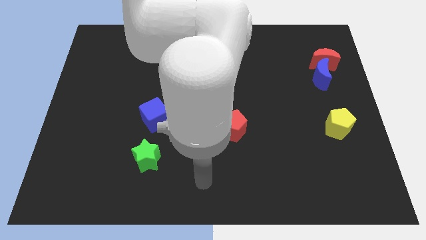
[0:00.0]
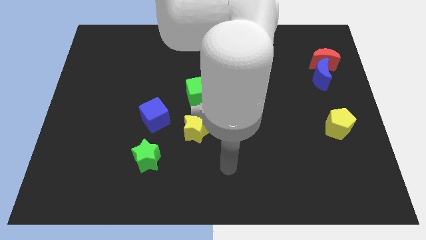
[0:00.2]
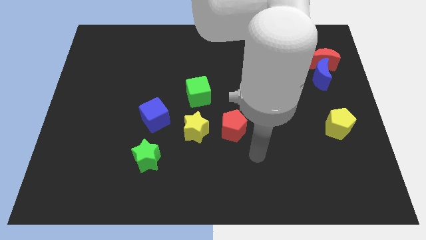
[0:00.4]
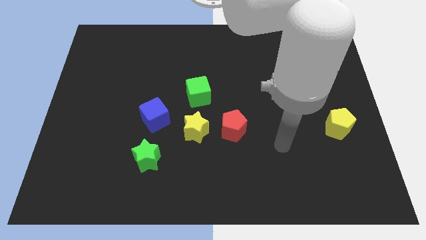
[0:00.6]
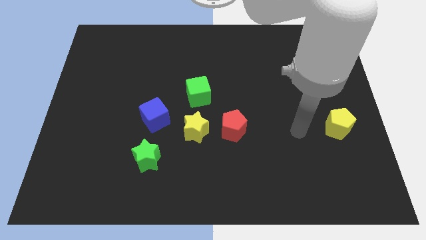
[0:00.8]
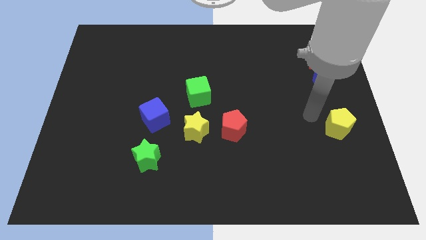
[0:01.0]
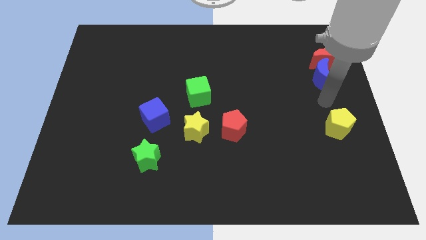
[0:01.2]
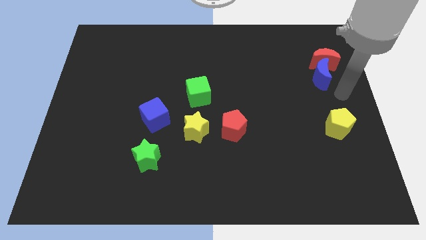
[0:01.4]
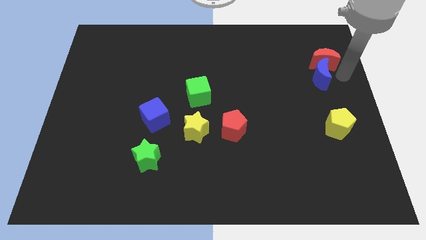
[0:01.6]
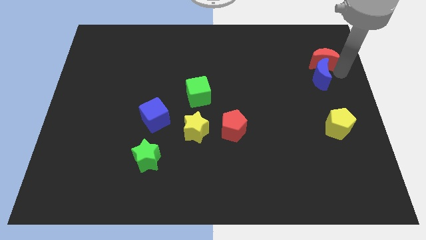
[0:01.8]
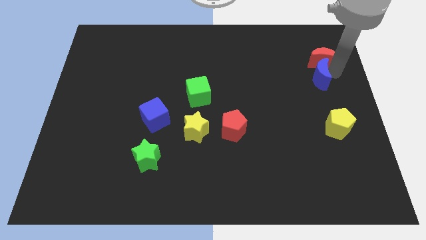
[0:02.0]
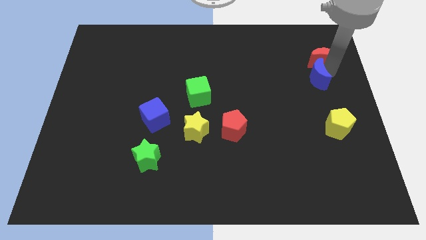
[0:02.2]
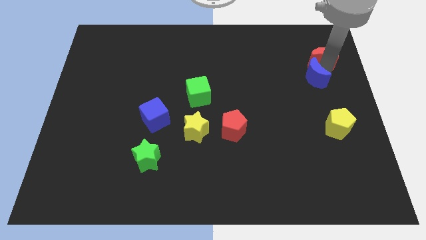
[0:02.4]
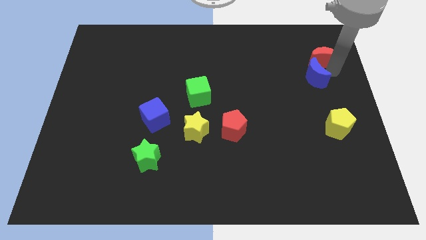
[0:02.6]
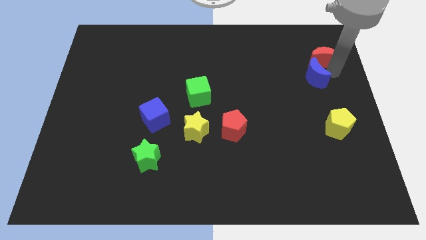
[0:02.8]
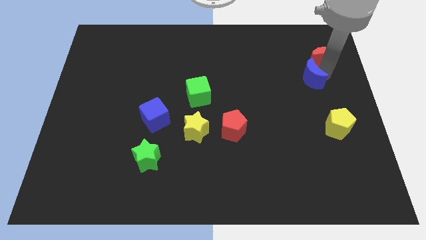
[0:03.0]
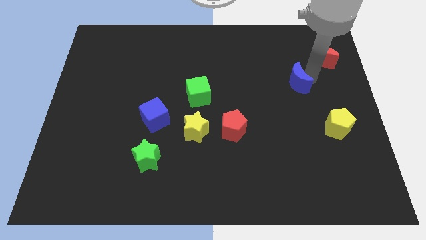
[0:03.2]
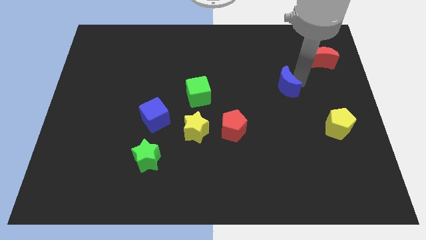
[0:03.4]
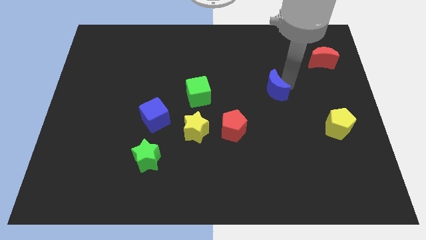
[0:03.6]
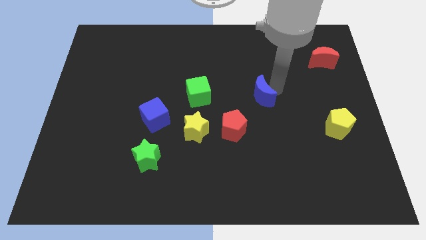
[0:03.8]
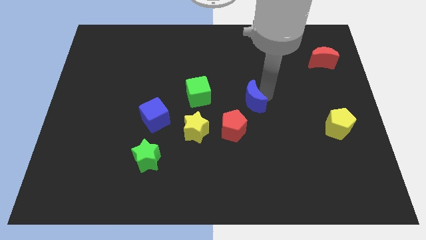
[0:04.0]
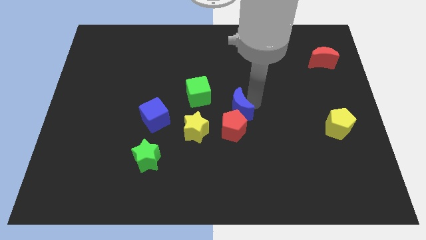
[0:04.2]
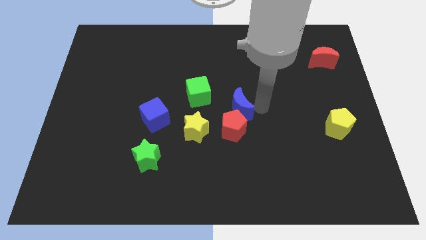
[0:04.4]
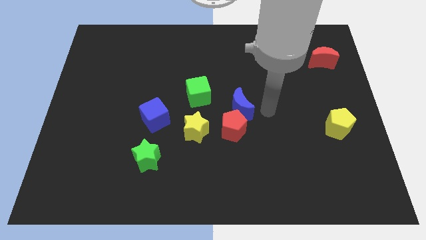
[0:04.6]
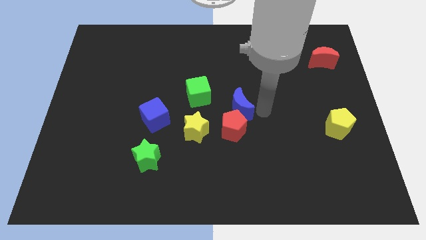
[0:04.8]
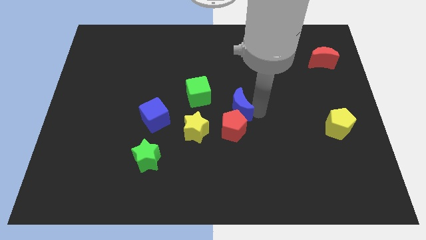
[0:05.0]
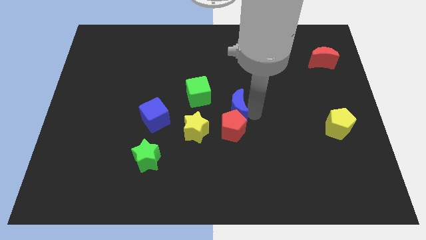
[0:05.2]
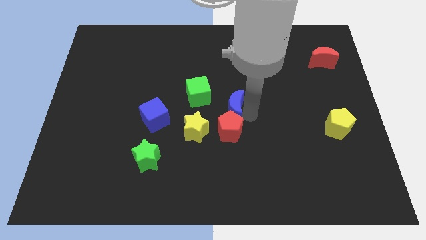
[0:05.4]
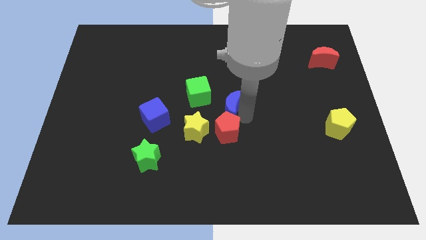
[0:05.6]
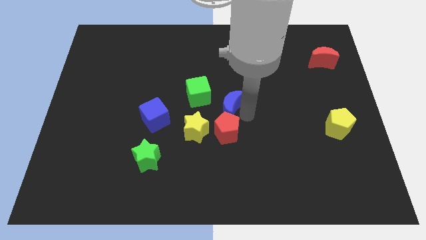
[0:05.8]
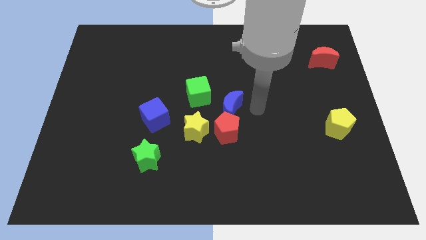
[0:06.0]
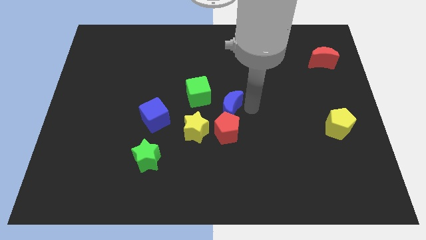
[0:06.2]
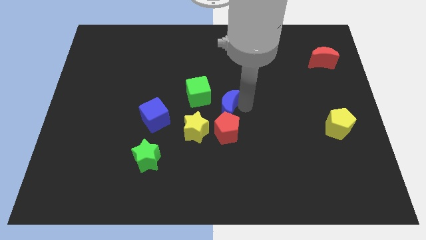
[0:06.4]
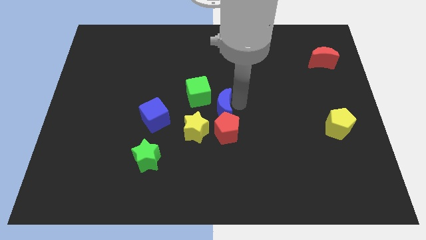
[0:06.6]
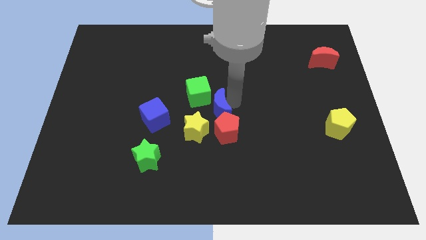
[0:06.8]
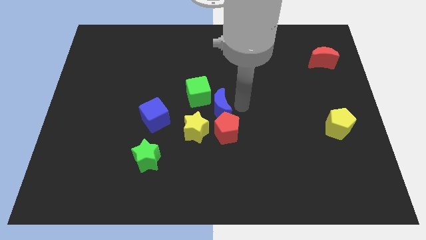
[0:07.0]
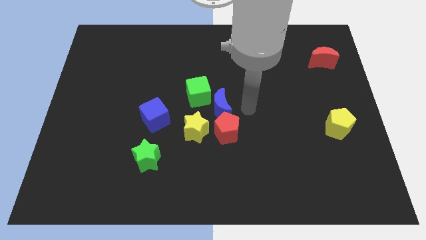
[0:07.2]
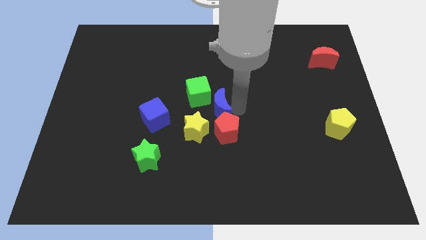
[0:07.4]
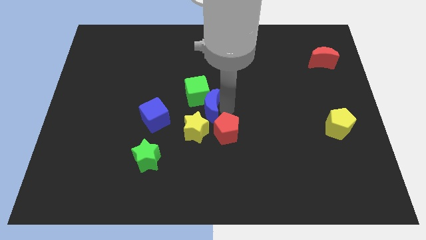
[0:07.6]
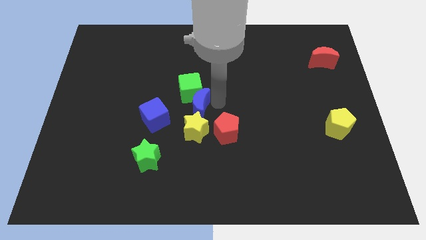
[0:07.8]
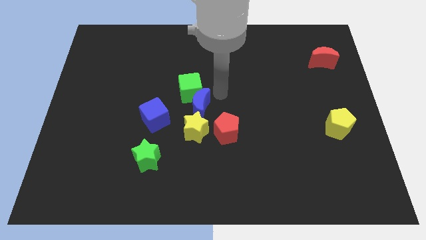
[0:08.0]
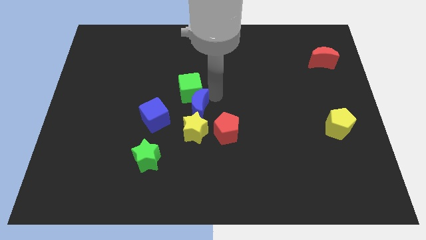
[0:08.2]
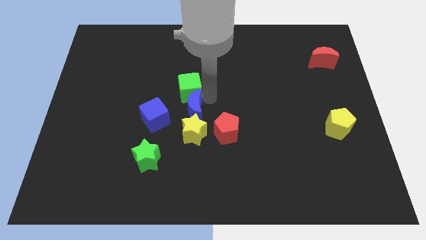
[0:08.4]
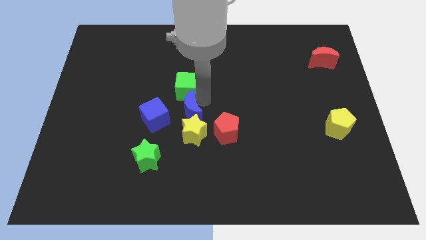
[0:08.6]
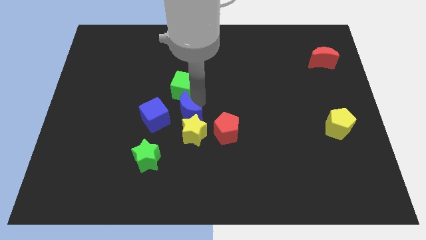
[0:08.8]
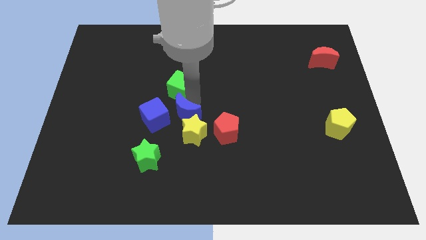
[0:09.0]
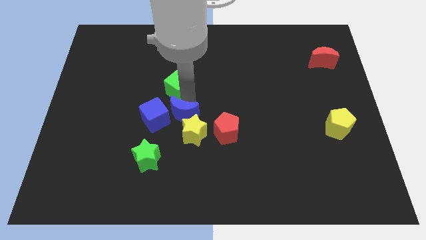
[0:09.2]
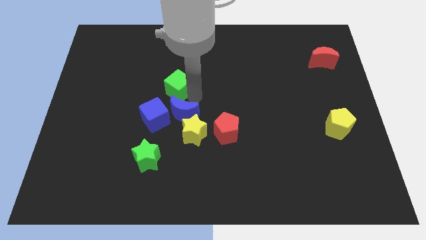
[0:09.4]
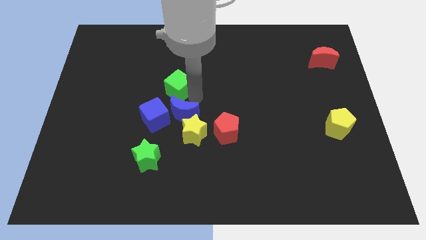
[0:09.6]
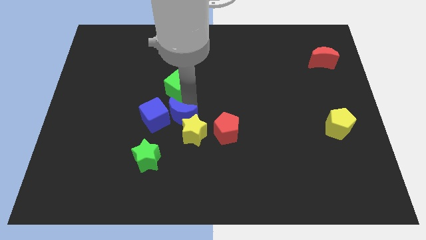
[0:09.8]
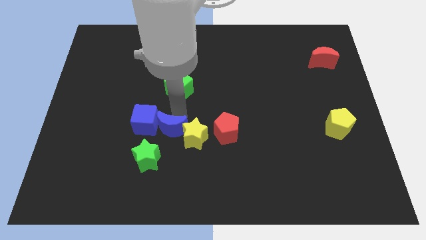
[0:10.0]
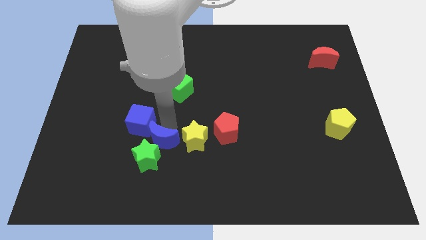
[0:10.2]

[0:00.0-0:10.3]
push the blue moon diagonally down and to the left of the yellow star

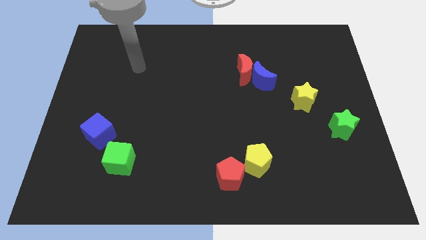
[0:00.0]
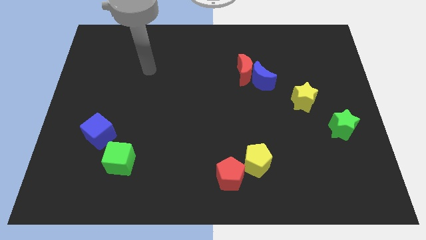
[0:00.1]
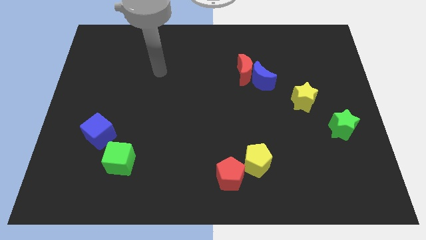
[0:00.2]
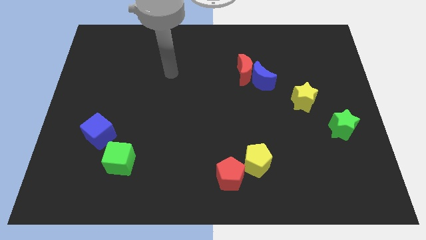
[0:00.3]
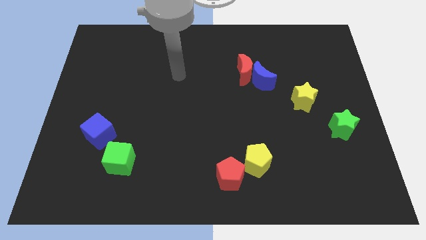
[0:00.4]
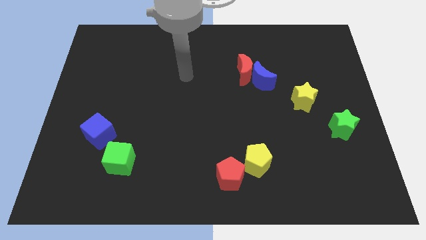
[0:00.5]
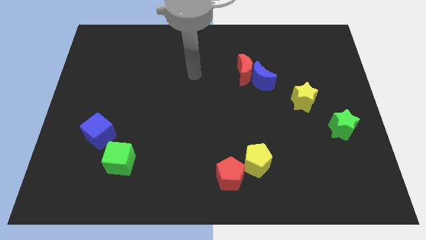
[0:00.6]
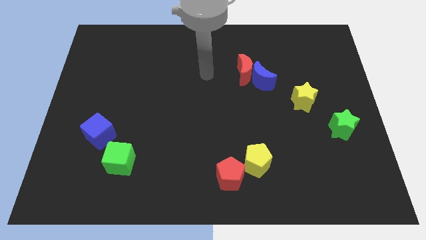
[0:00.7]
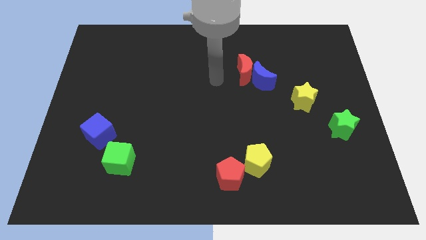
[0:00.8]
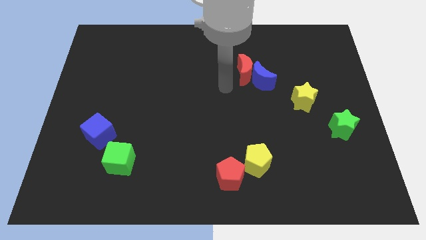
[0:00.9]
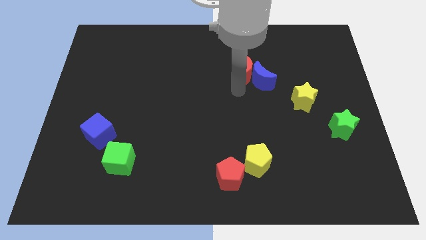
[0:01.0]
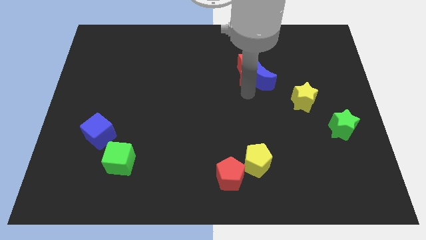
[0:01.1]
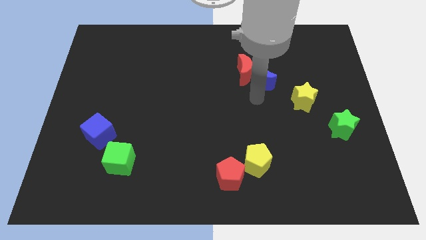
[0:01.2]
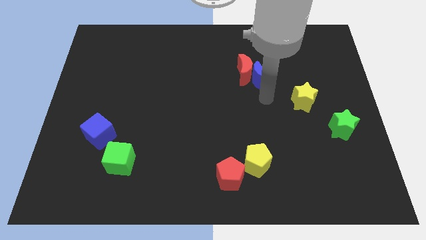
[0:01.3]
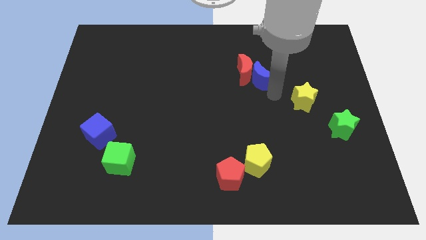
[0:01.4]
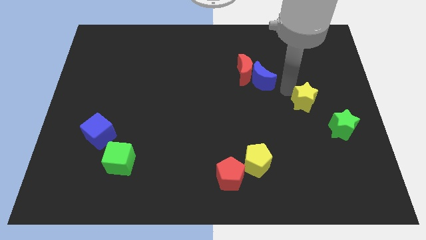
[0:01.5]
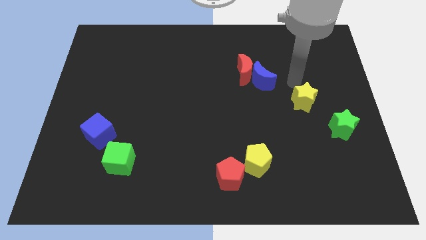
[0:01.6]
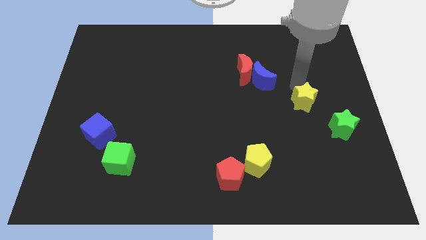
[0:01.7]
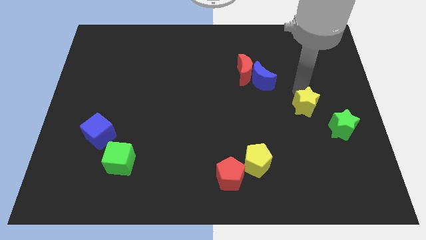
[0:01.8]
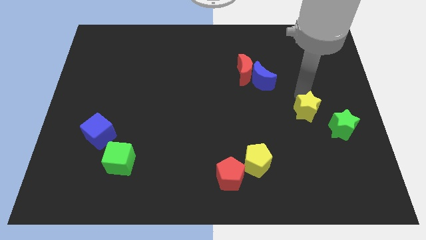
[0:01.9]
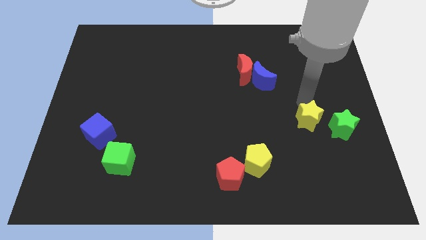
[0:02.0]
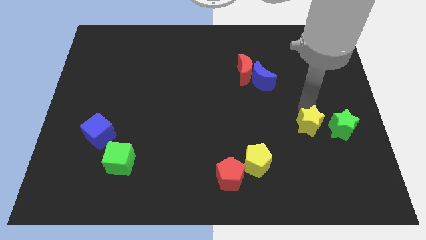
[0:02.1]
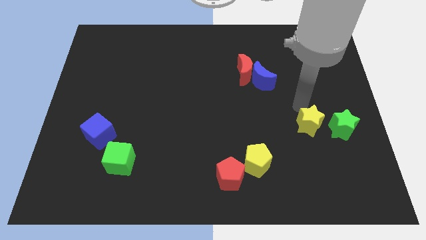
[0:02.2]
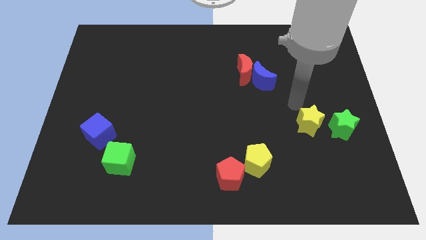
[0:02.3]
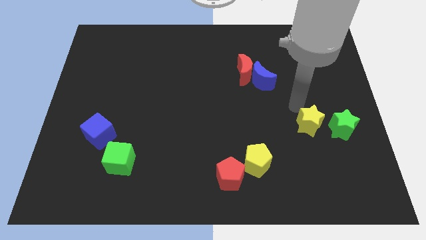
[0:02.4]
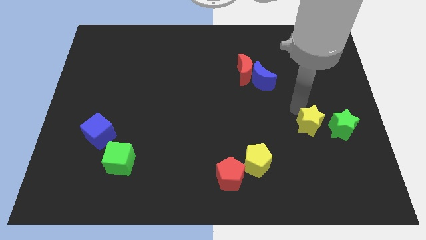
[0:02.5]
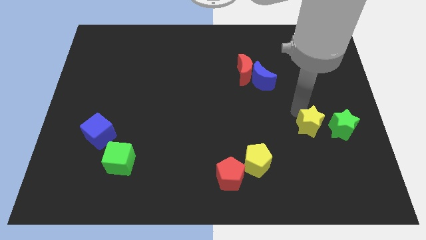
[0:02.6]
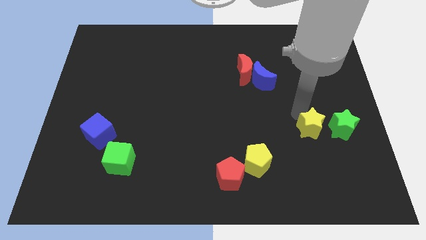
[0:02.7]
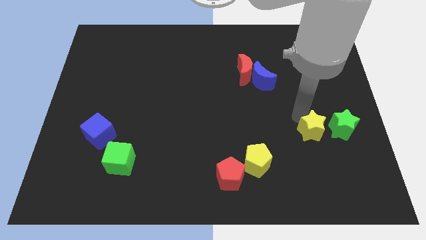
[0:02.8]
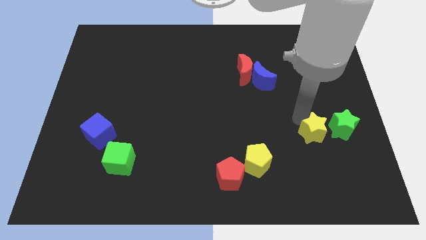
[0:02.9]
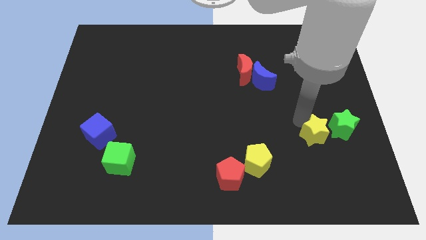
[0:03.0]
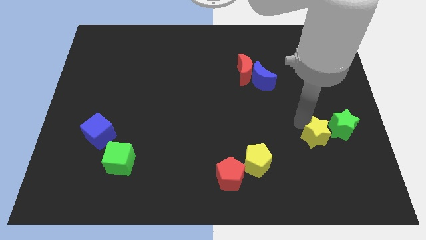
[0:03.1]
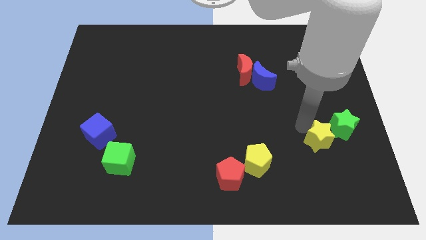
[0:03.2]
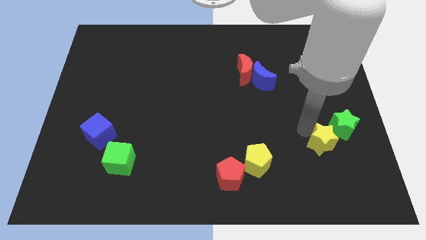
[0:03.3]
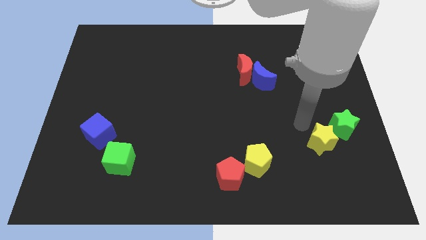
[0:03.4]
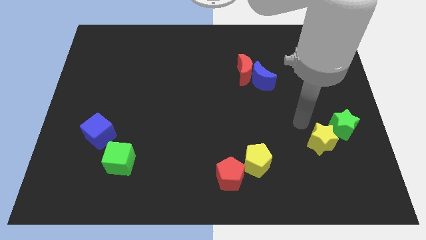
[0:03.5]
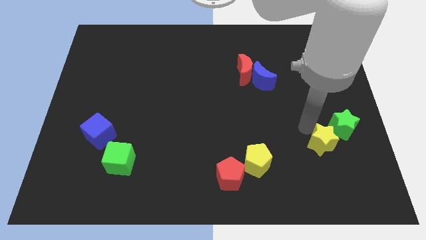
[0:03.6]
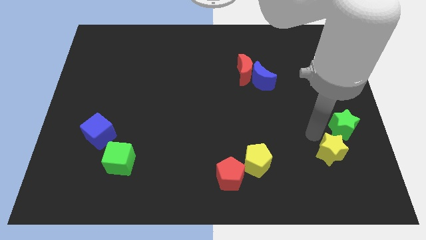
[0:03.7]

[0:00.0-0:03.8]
push the yellow star below the green star
